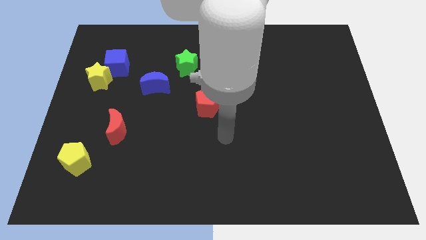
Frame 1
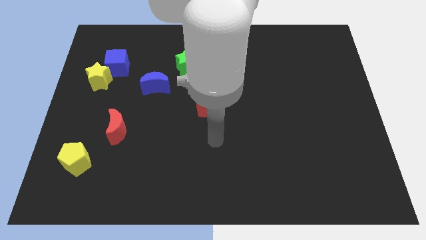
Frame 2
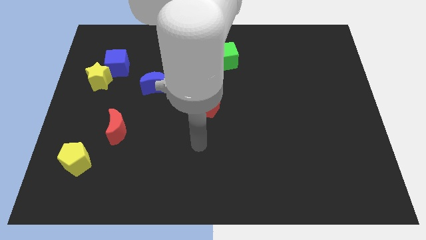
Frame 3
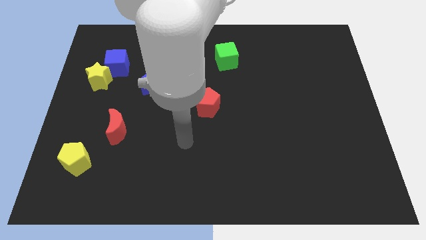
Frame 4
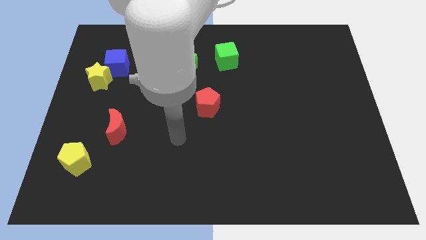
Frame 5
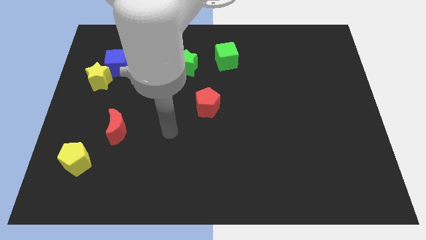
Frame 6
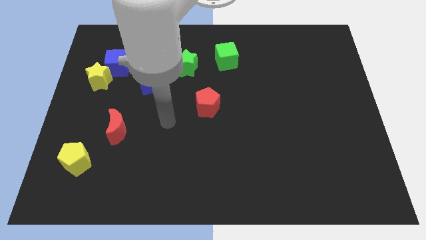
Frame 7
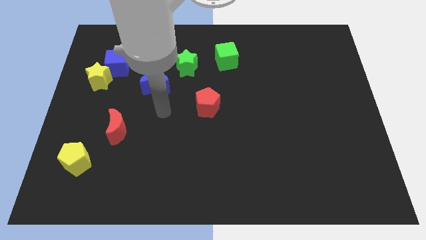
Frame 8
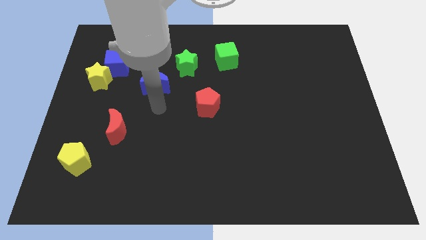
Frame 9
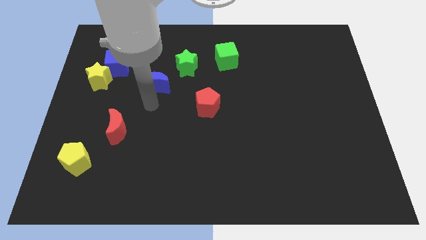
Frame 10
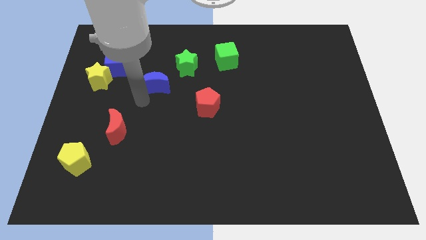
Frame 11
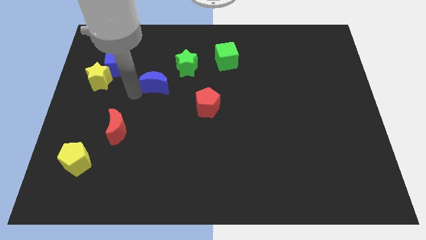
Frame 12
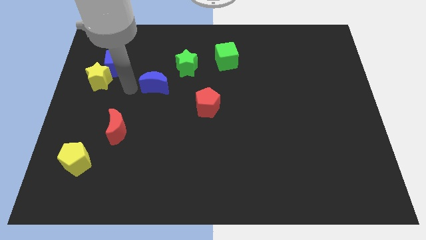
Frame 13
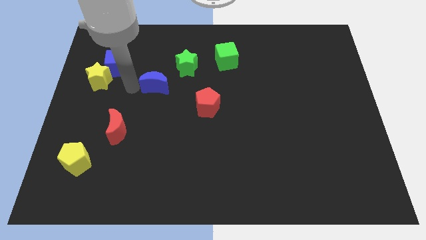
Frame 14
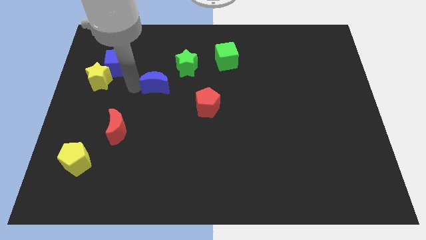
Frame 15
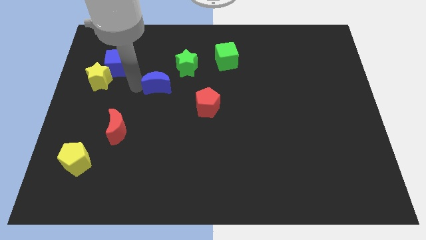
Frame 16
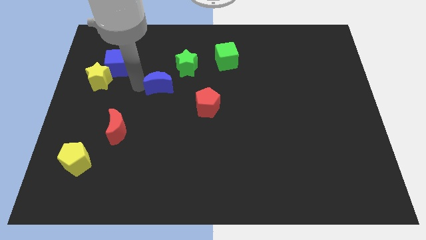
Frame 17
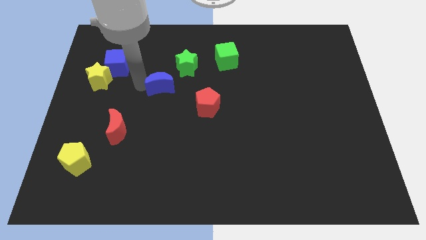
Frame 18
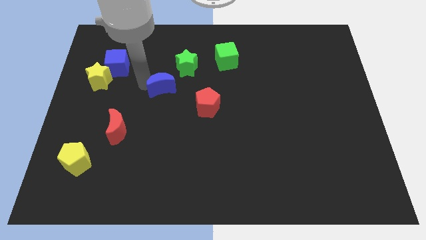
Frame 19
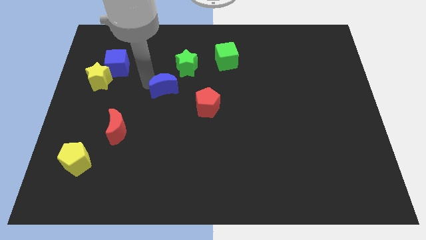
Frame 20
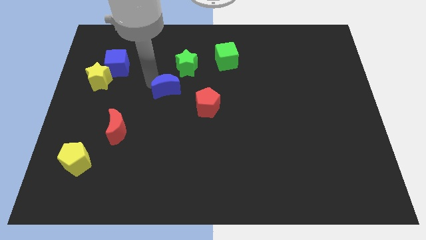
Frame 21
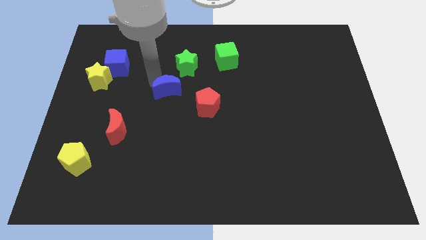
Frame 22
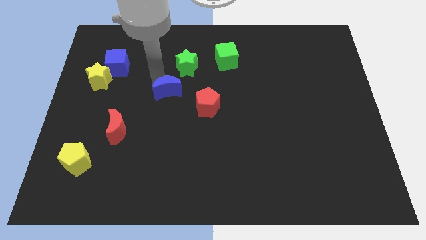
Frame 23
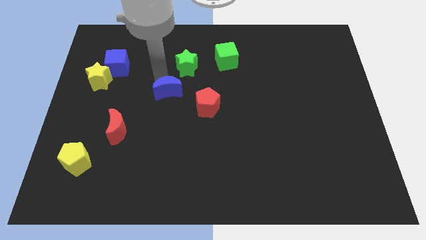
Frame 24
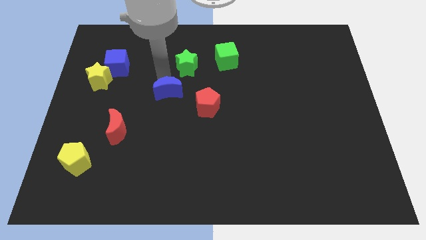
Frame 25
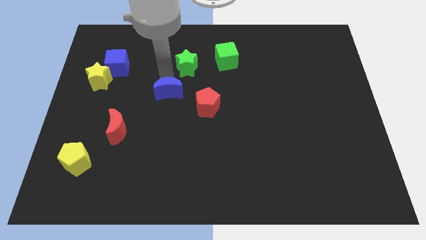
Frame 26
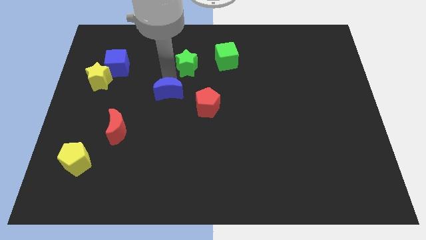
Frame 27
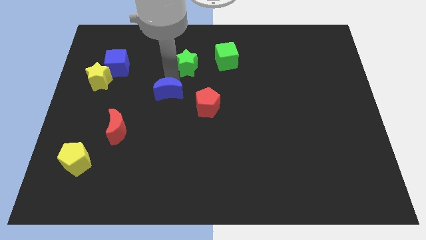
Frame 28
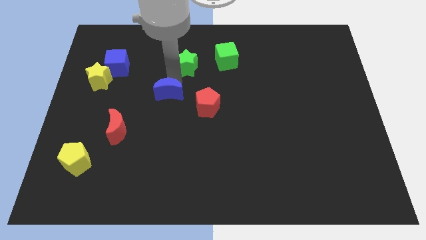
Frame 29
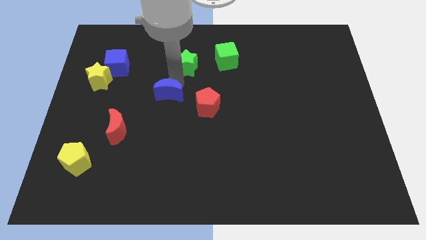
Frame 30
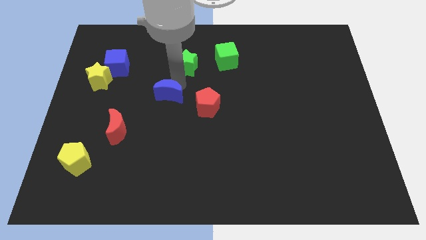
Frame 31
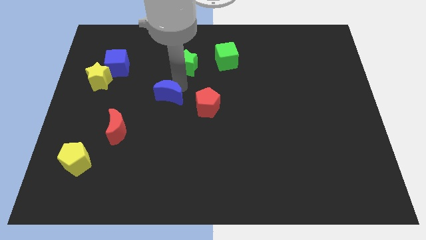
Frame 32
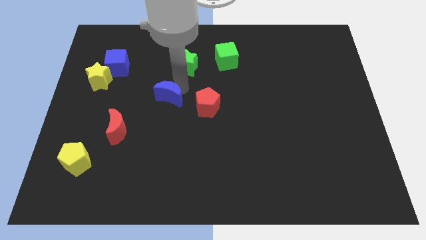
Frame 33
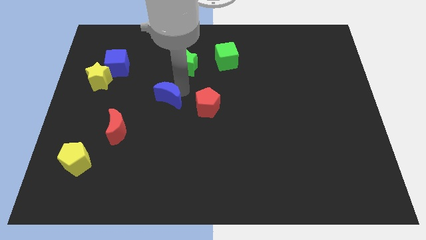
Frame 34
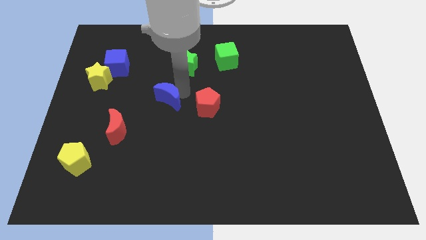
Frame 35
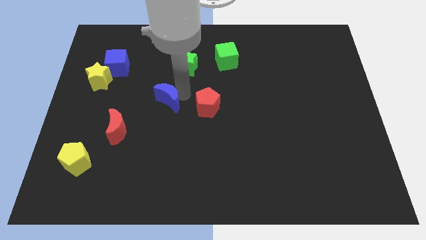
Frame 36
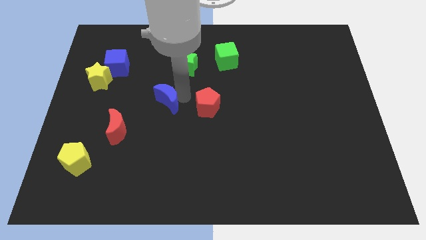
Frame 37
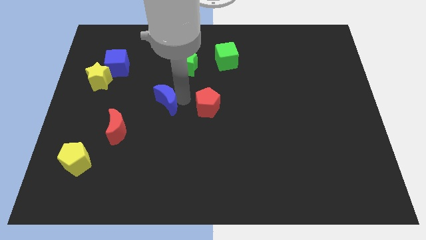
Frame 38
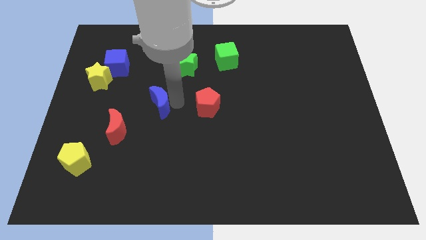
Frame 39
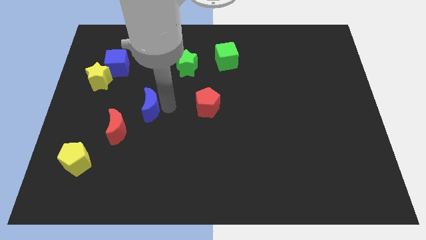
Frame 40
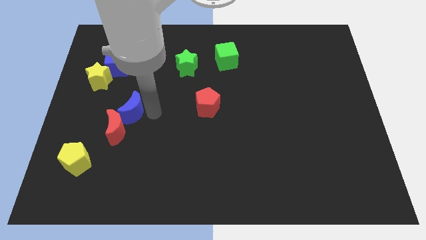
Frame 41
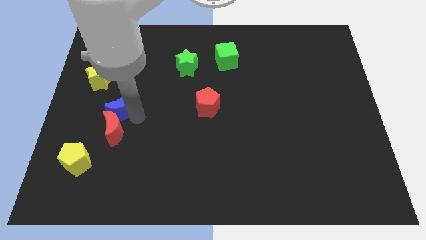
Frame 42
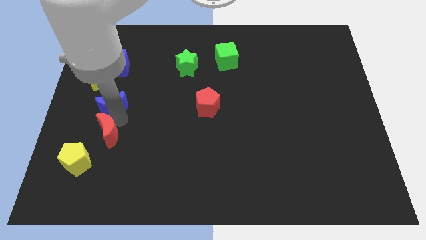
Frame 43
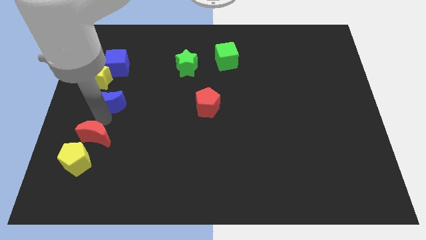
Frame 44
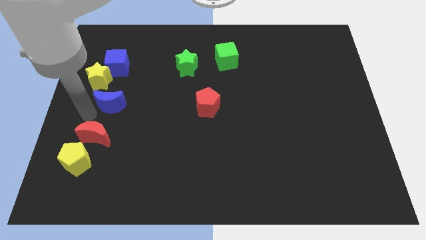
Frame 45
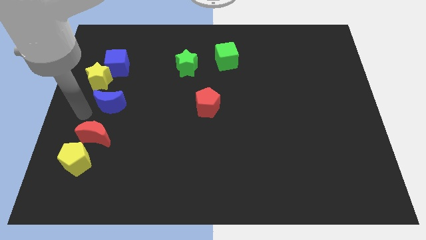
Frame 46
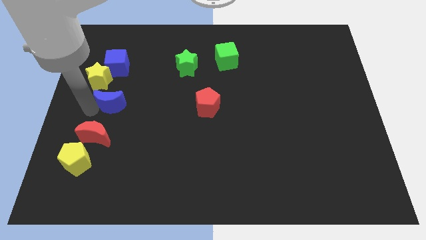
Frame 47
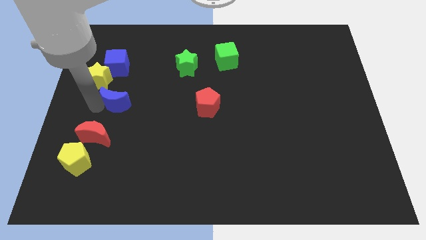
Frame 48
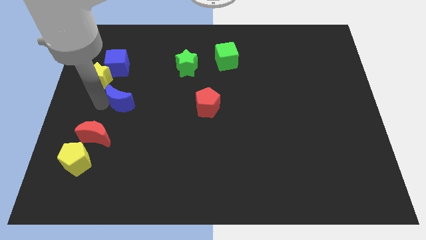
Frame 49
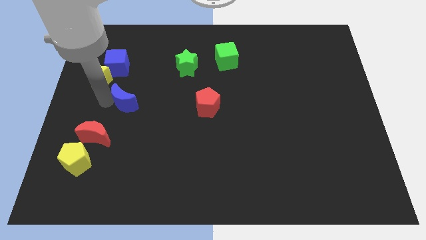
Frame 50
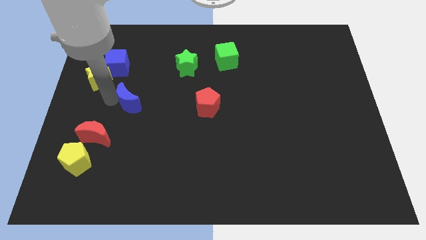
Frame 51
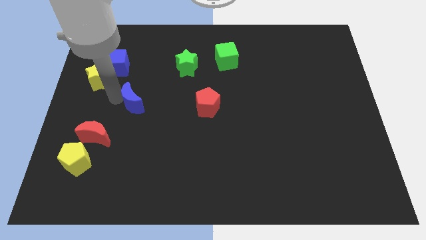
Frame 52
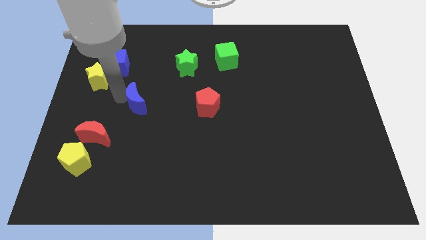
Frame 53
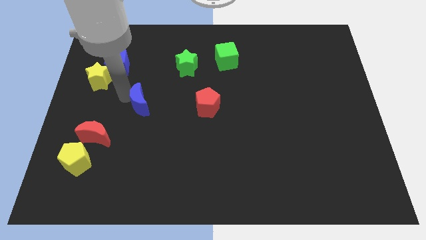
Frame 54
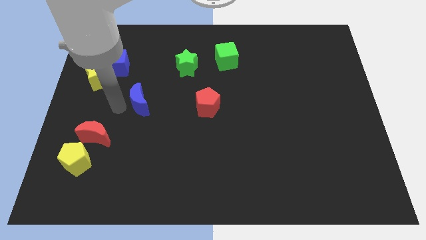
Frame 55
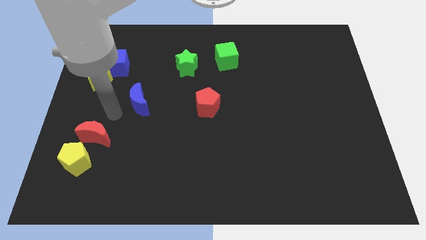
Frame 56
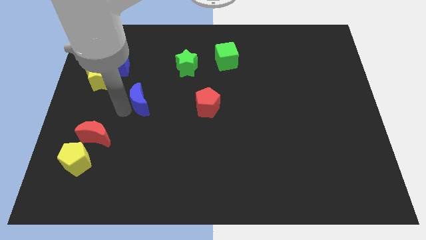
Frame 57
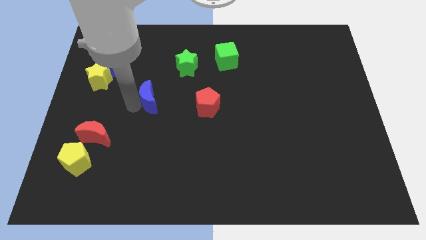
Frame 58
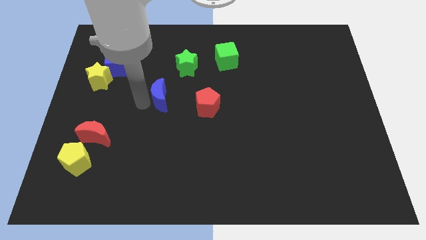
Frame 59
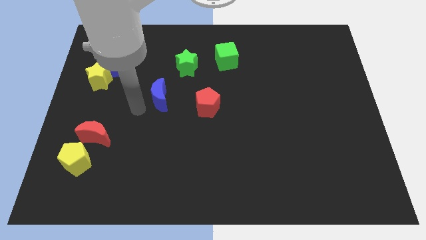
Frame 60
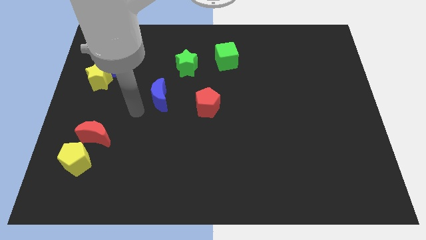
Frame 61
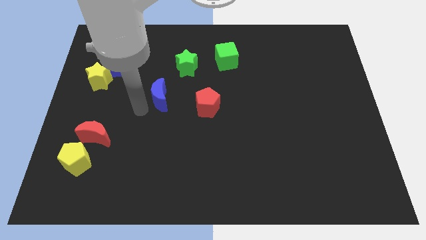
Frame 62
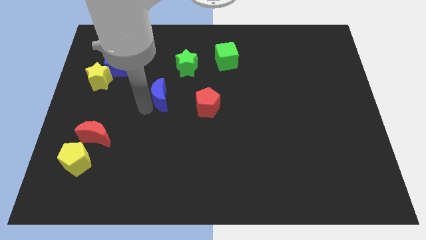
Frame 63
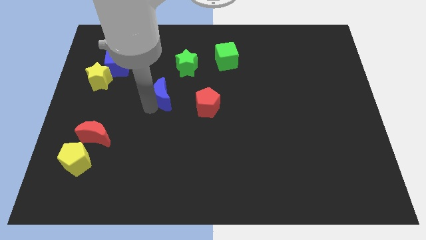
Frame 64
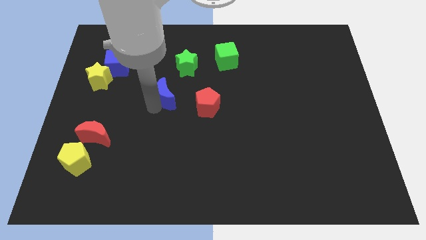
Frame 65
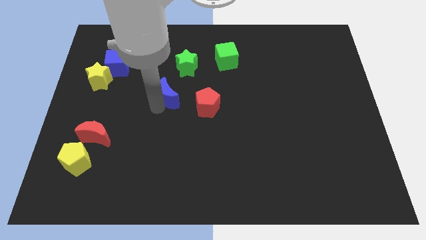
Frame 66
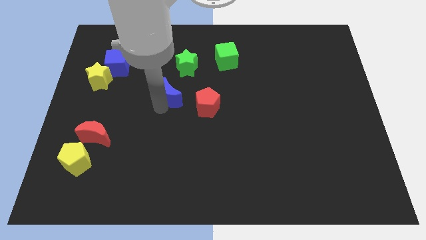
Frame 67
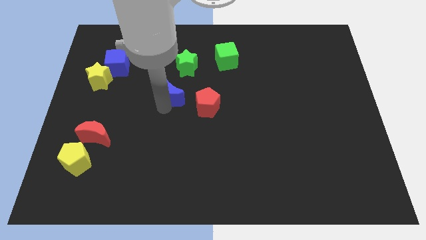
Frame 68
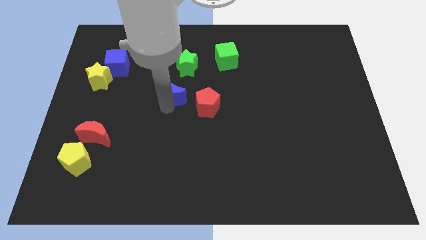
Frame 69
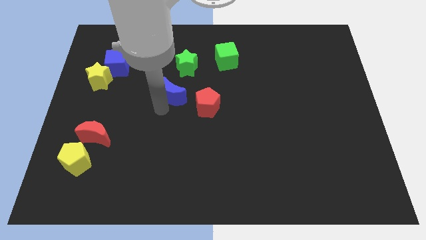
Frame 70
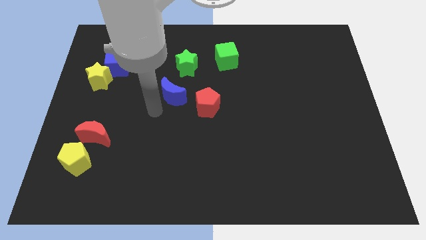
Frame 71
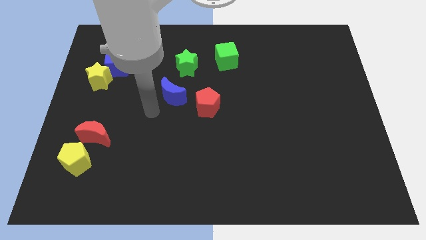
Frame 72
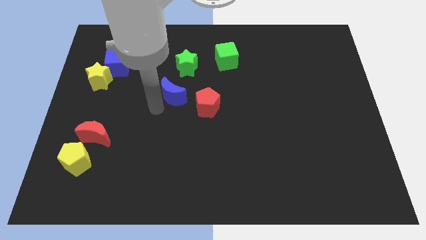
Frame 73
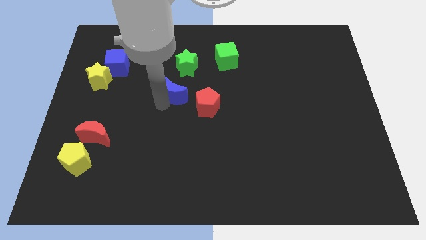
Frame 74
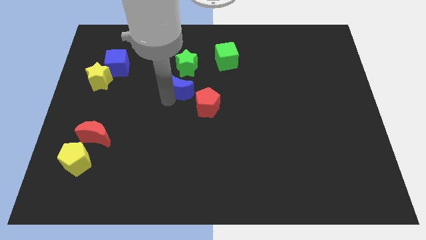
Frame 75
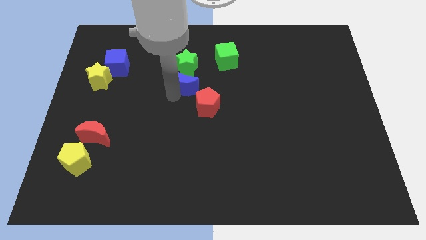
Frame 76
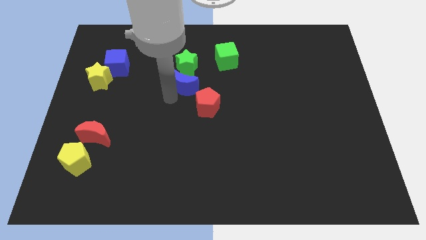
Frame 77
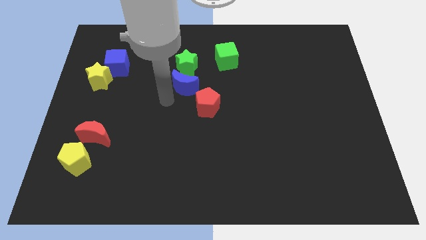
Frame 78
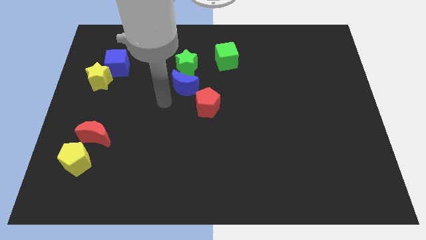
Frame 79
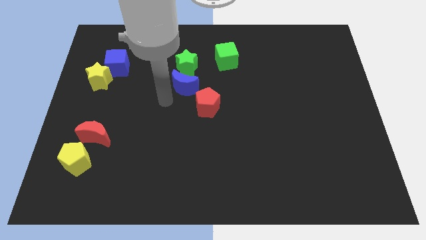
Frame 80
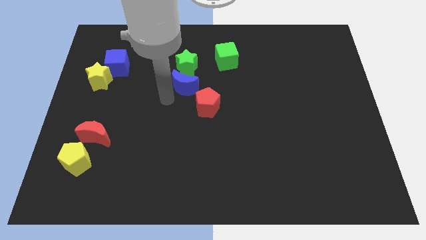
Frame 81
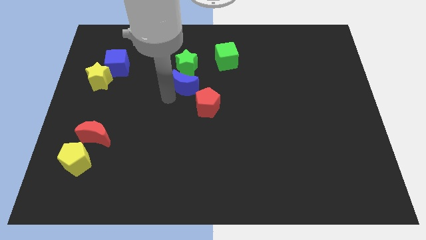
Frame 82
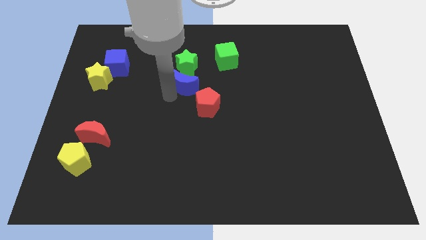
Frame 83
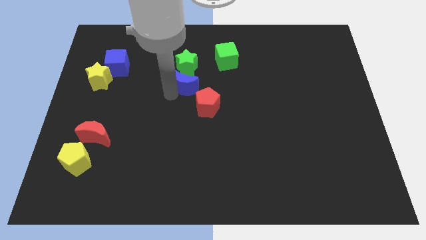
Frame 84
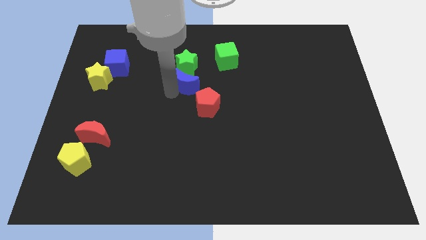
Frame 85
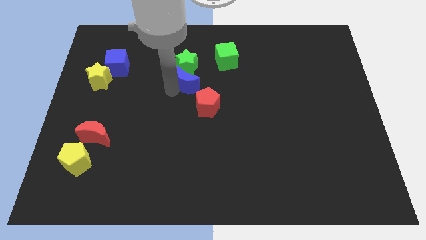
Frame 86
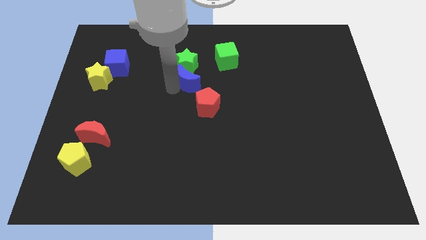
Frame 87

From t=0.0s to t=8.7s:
put the blue moon to the bottom left of the green cube
